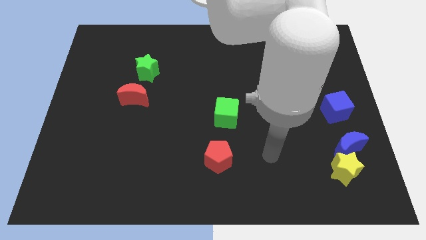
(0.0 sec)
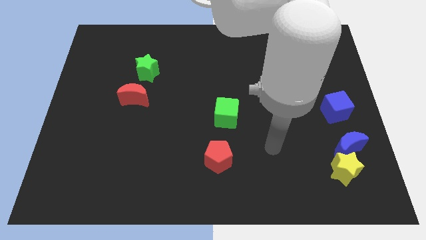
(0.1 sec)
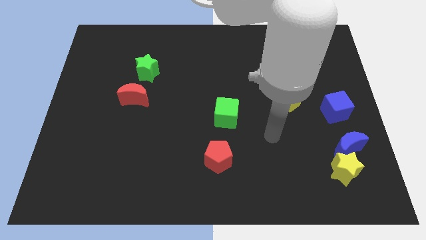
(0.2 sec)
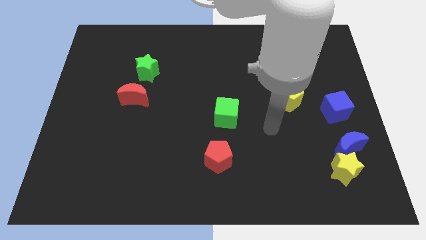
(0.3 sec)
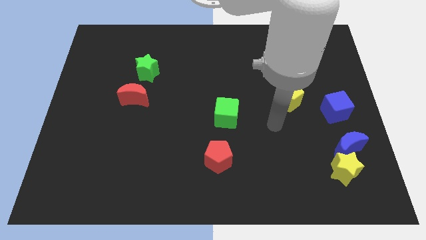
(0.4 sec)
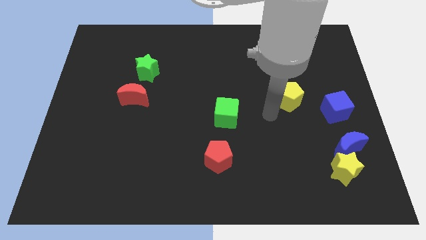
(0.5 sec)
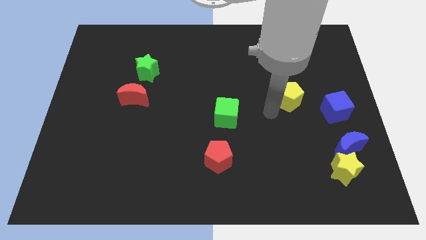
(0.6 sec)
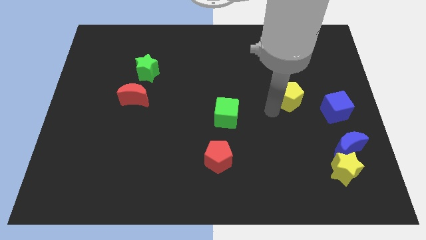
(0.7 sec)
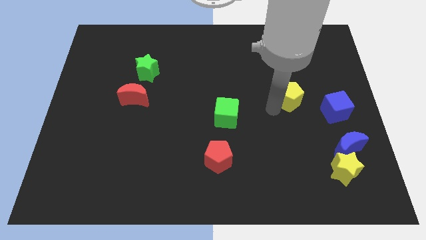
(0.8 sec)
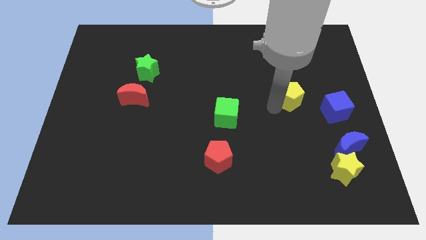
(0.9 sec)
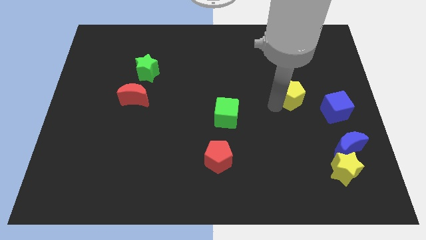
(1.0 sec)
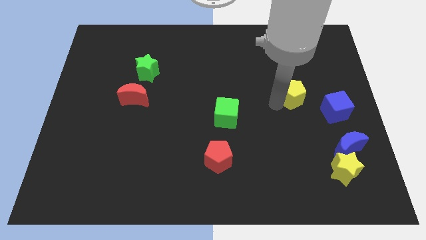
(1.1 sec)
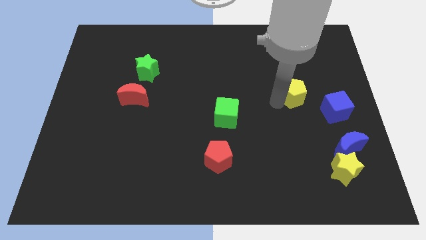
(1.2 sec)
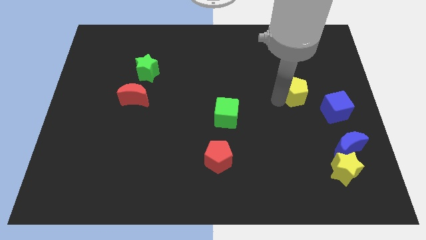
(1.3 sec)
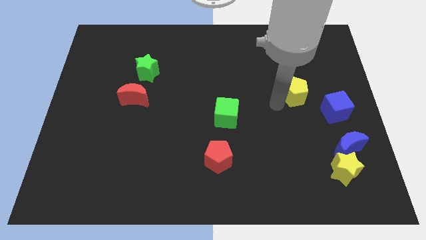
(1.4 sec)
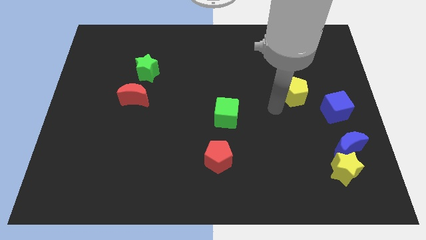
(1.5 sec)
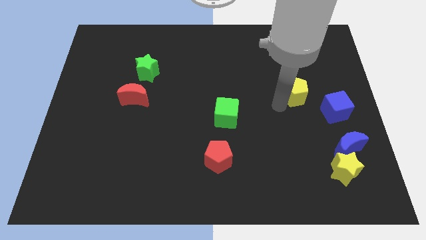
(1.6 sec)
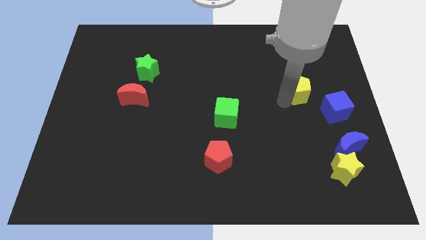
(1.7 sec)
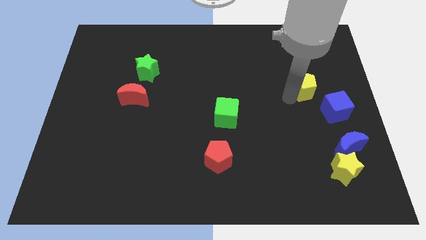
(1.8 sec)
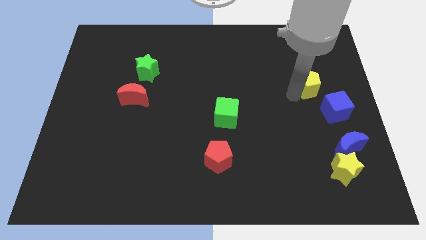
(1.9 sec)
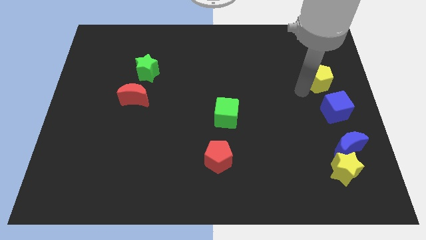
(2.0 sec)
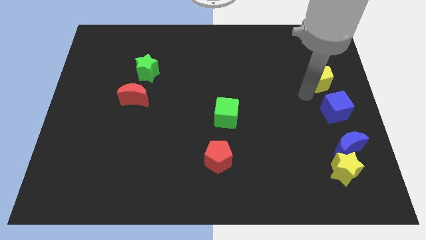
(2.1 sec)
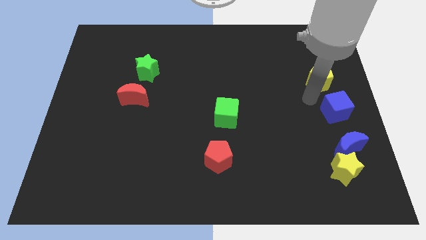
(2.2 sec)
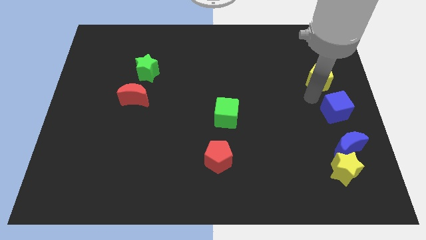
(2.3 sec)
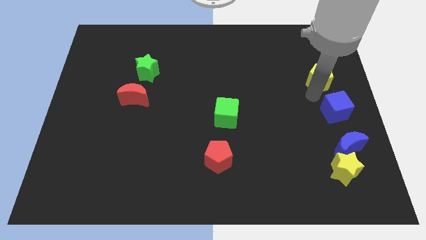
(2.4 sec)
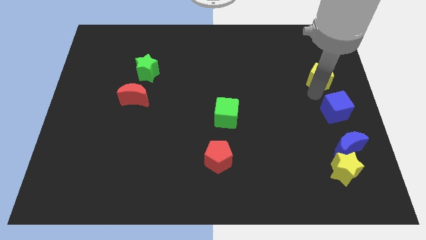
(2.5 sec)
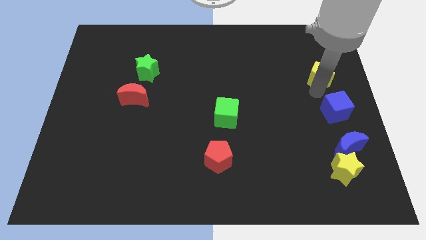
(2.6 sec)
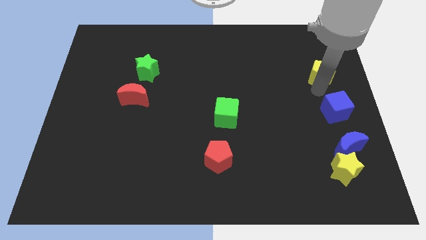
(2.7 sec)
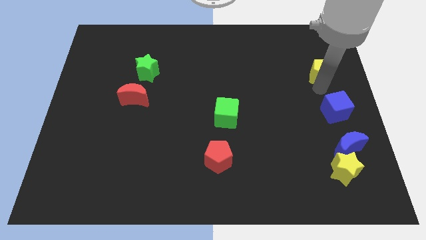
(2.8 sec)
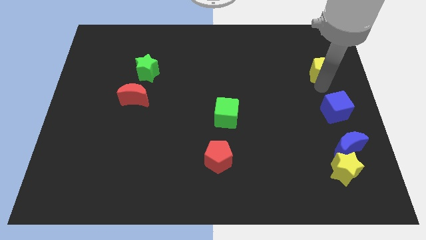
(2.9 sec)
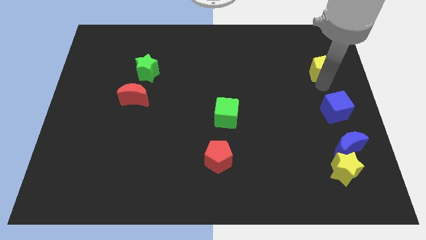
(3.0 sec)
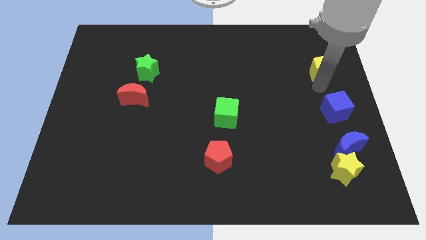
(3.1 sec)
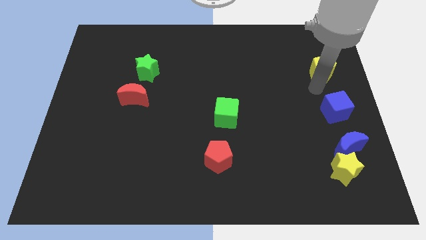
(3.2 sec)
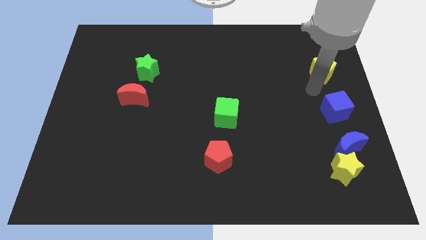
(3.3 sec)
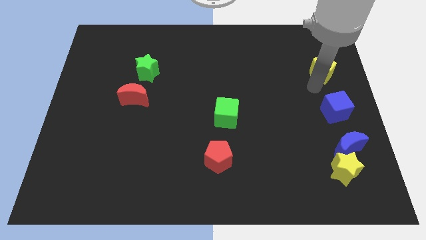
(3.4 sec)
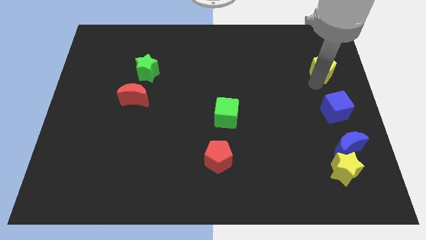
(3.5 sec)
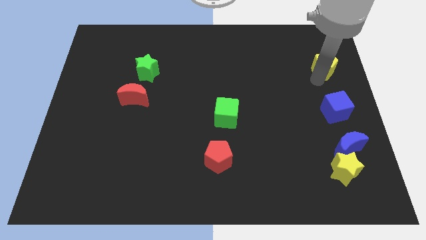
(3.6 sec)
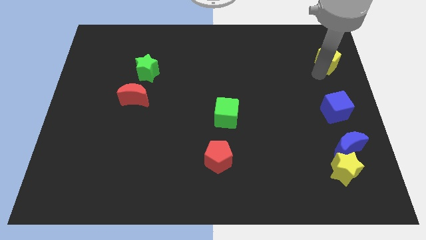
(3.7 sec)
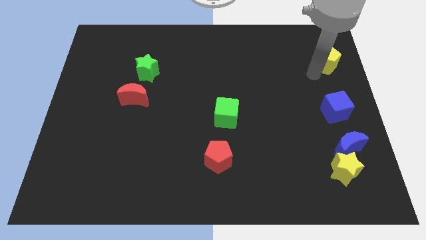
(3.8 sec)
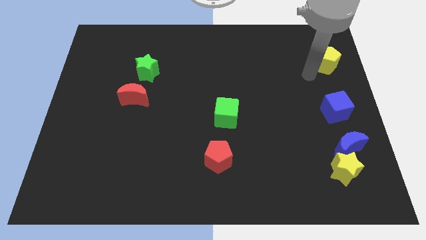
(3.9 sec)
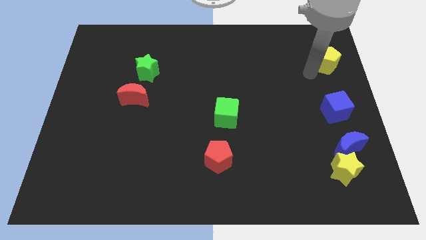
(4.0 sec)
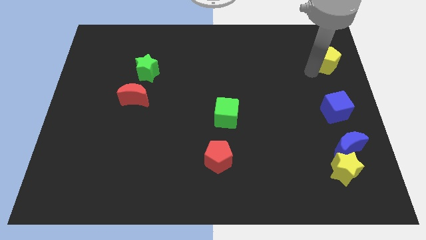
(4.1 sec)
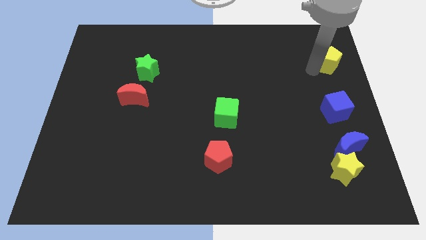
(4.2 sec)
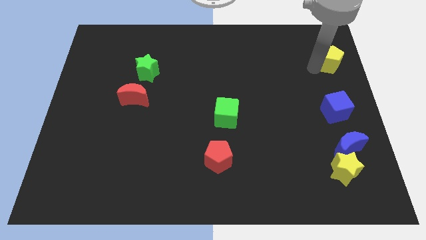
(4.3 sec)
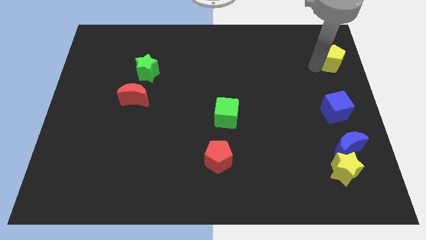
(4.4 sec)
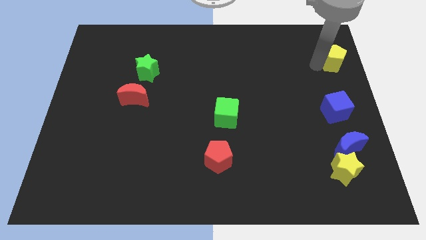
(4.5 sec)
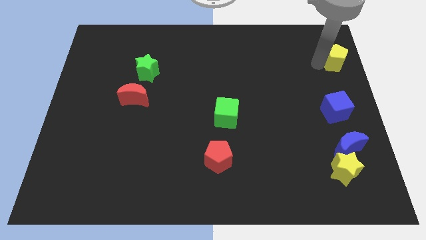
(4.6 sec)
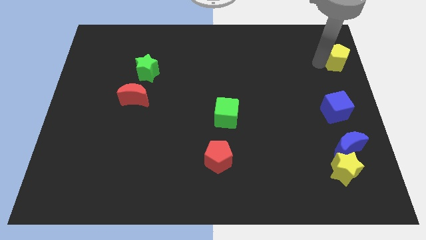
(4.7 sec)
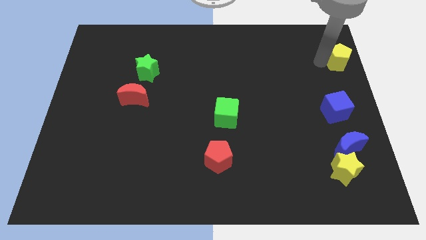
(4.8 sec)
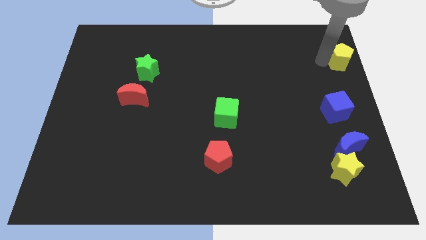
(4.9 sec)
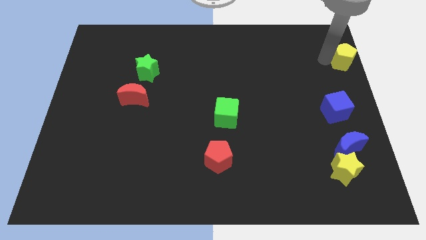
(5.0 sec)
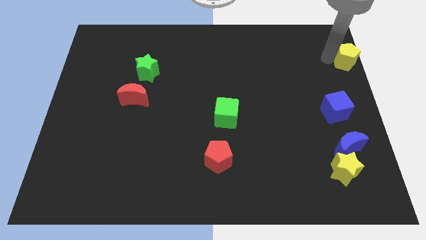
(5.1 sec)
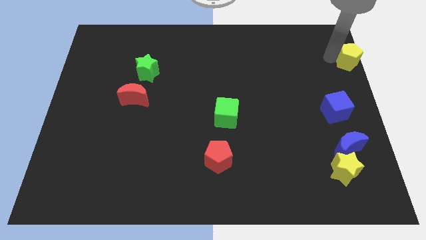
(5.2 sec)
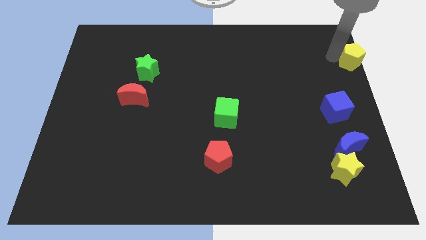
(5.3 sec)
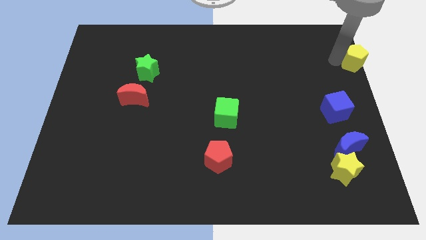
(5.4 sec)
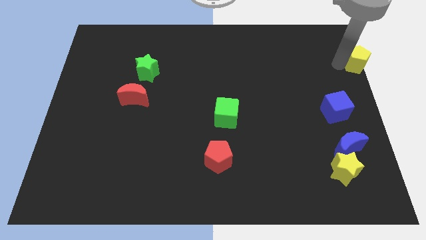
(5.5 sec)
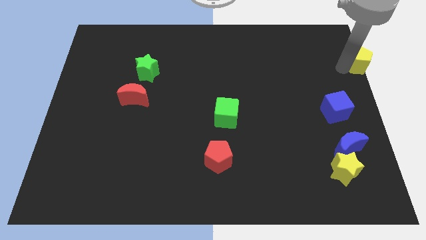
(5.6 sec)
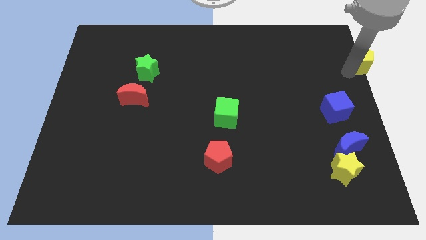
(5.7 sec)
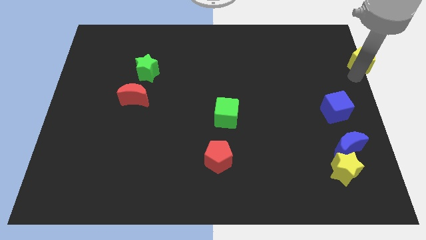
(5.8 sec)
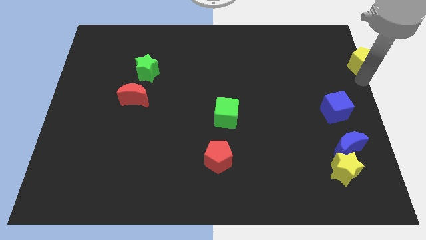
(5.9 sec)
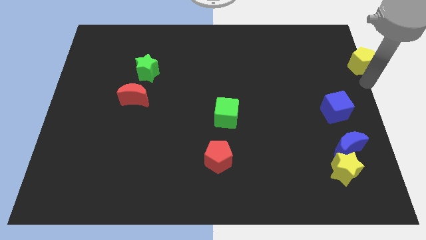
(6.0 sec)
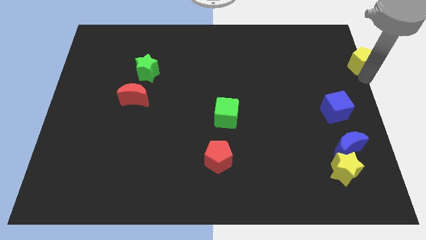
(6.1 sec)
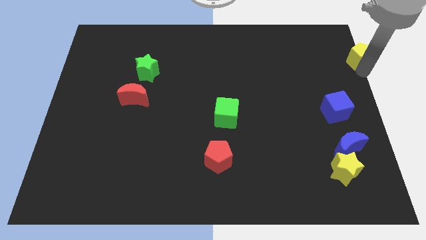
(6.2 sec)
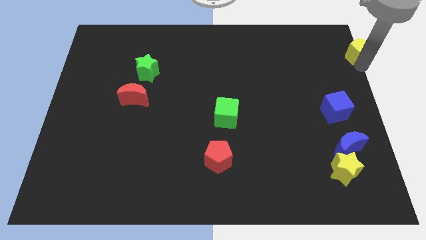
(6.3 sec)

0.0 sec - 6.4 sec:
push the yellow pentagon to the upper right corner

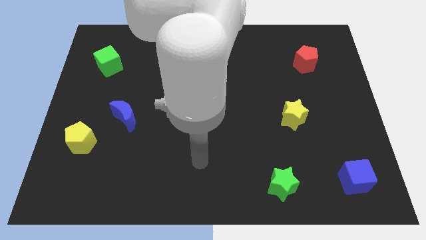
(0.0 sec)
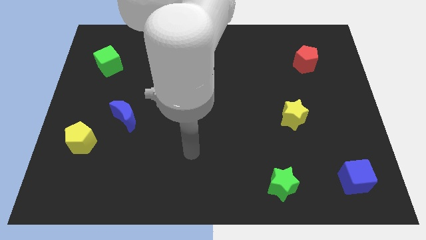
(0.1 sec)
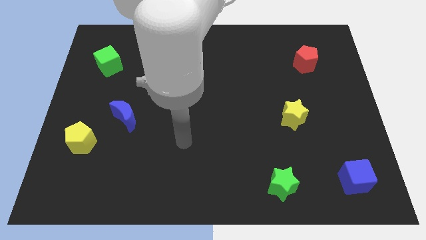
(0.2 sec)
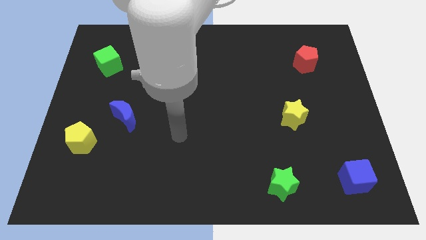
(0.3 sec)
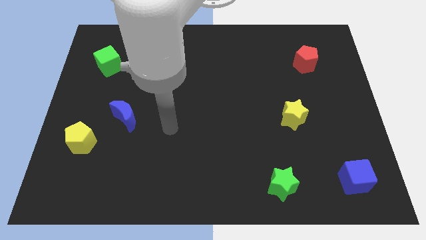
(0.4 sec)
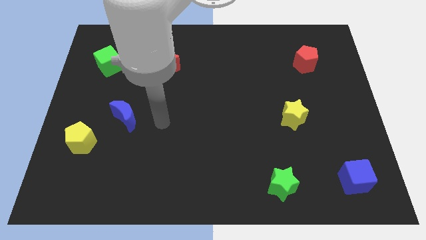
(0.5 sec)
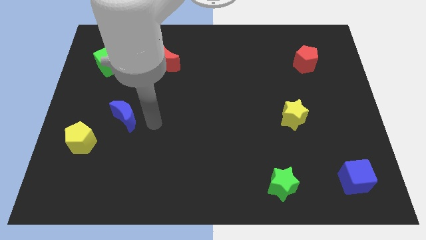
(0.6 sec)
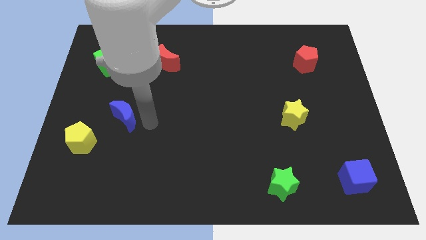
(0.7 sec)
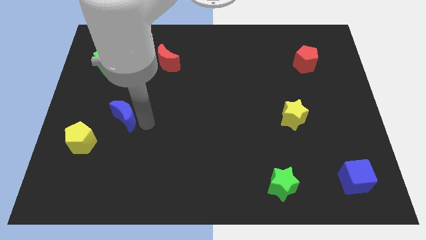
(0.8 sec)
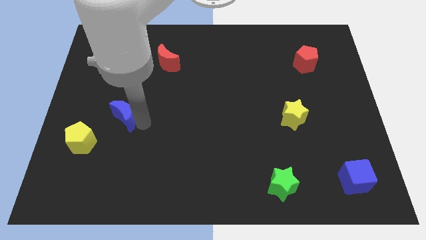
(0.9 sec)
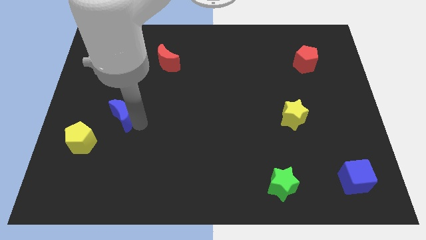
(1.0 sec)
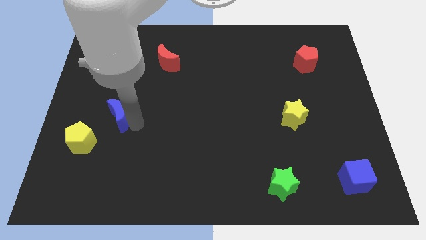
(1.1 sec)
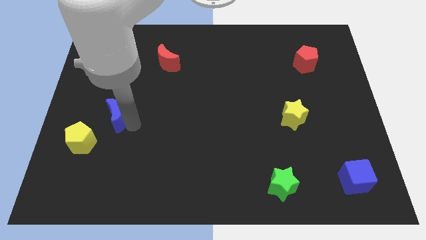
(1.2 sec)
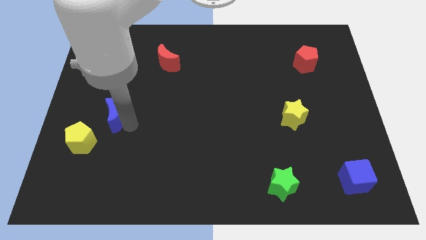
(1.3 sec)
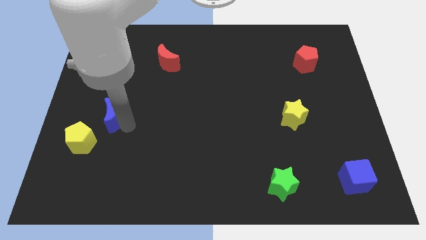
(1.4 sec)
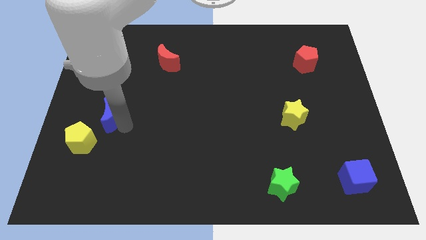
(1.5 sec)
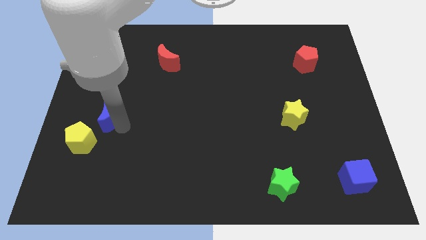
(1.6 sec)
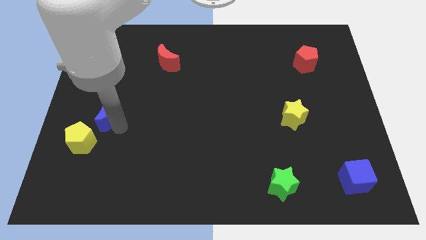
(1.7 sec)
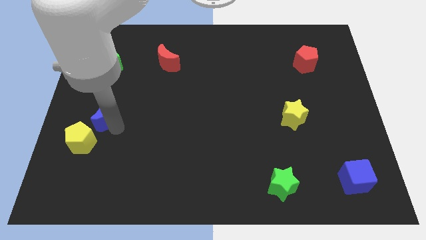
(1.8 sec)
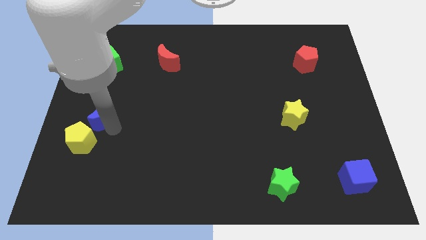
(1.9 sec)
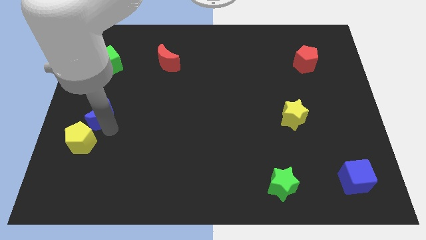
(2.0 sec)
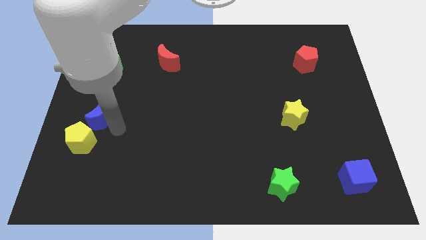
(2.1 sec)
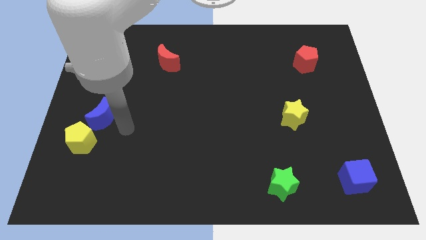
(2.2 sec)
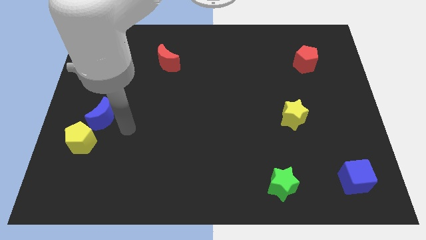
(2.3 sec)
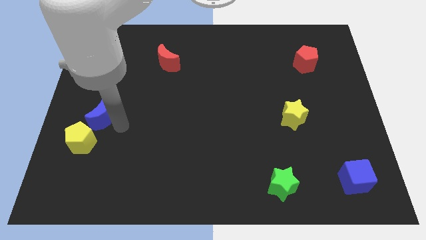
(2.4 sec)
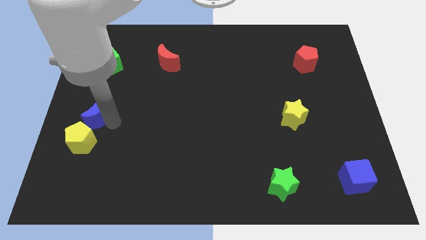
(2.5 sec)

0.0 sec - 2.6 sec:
move the blue moon to the center left
